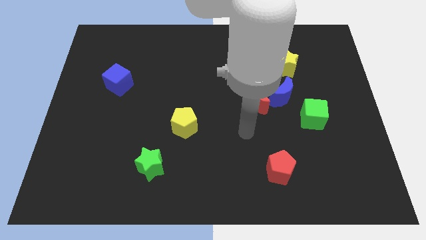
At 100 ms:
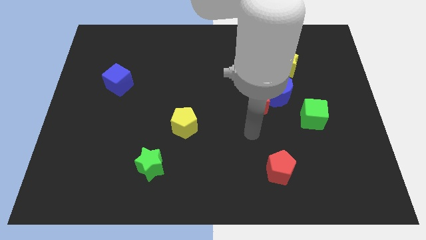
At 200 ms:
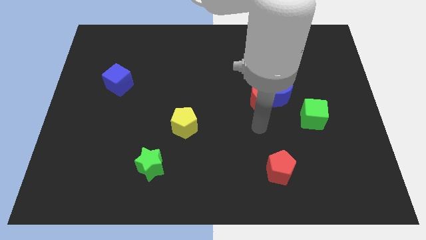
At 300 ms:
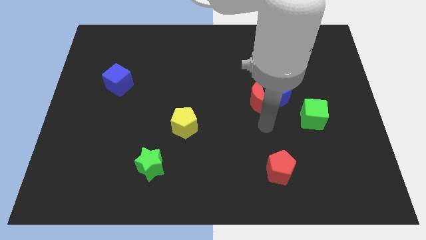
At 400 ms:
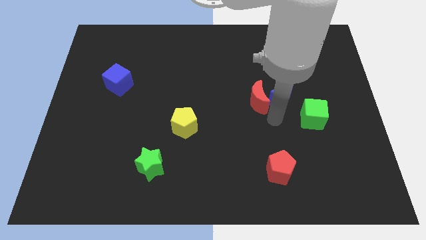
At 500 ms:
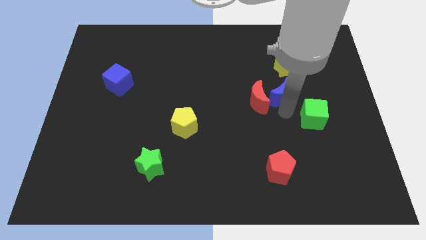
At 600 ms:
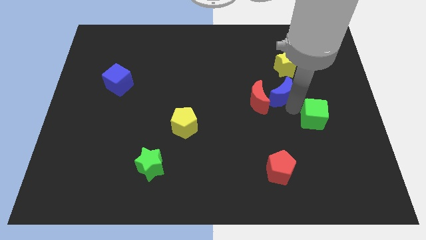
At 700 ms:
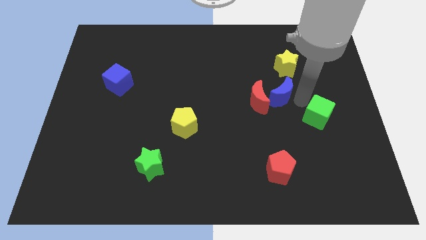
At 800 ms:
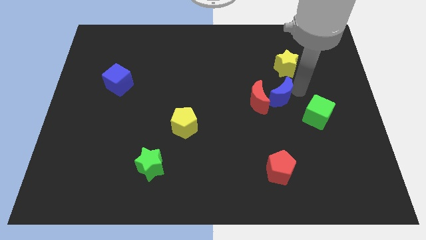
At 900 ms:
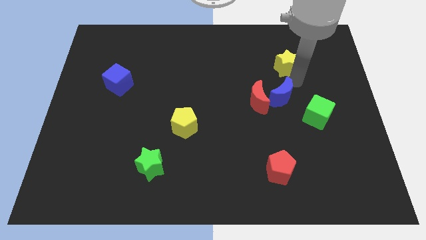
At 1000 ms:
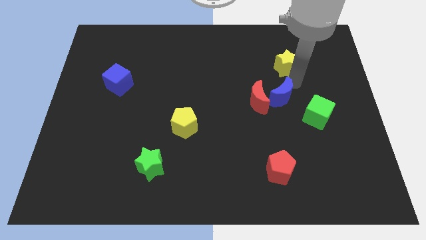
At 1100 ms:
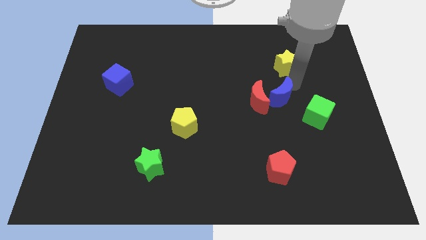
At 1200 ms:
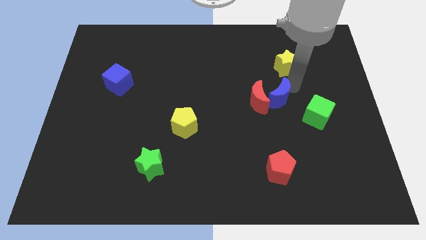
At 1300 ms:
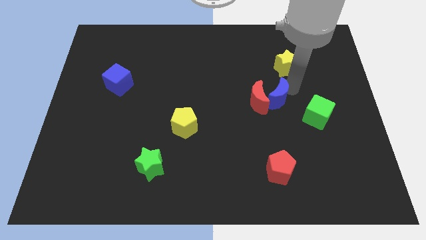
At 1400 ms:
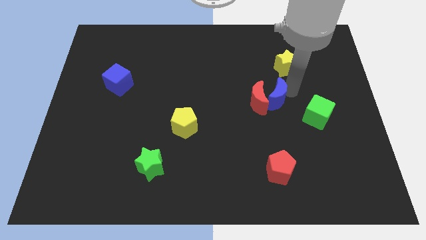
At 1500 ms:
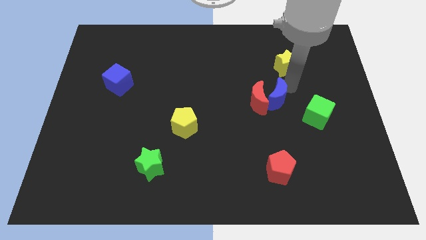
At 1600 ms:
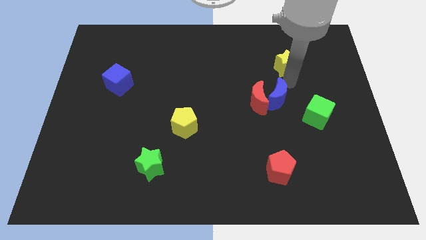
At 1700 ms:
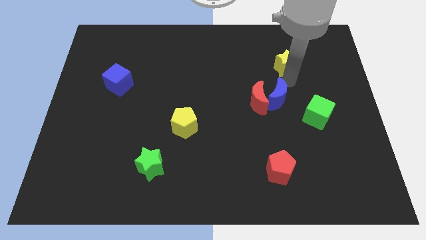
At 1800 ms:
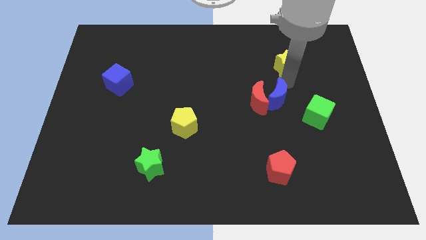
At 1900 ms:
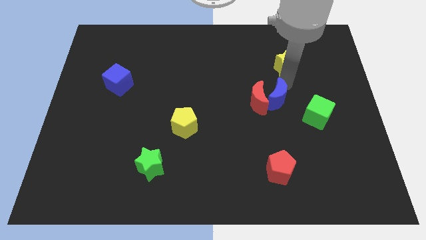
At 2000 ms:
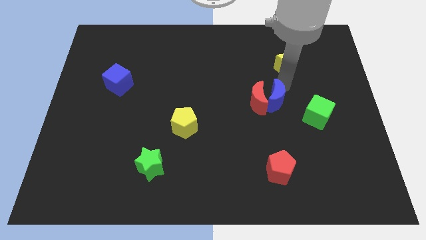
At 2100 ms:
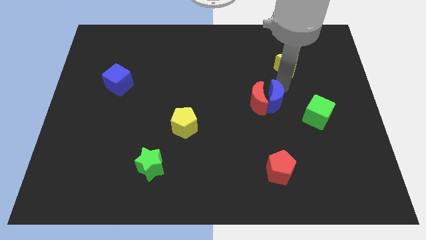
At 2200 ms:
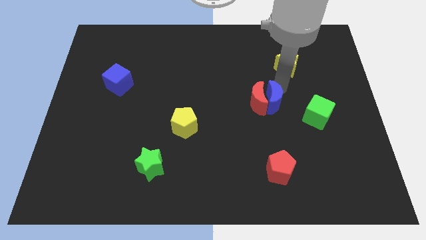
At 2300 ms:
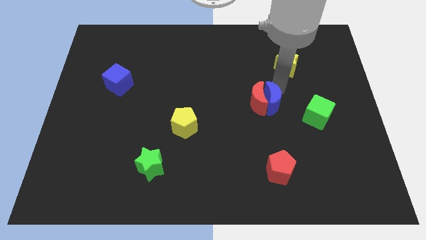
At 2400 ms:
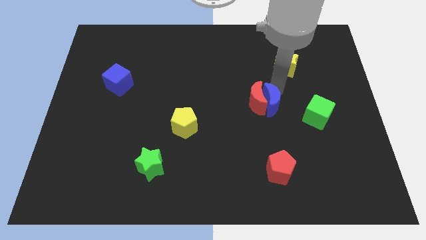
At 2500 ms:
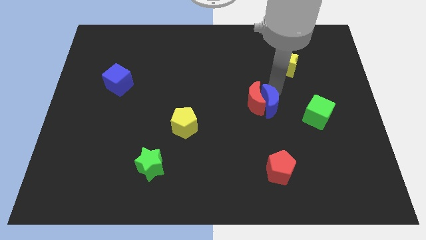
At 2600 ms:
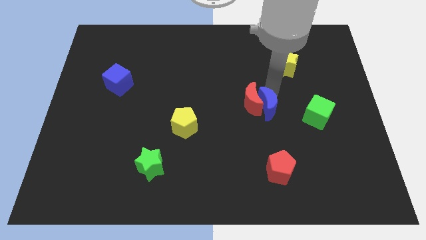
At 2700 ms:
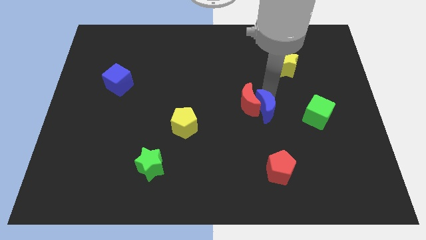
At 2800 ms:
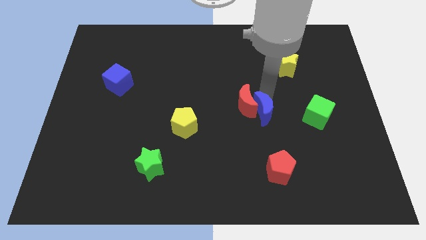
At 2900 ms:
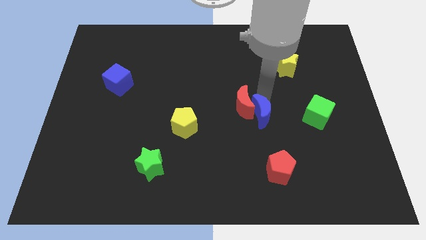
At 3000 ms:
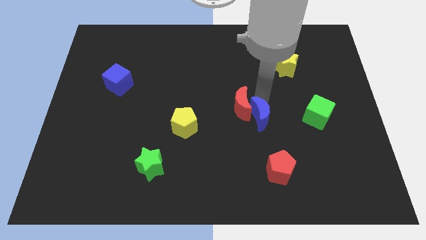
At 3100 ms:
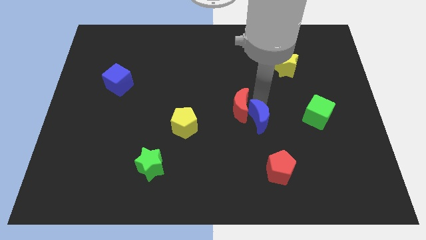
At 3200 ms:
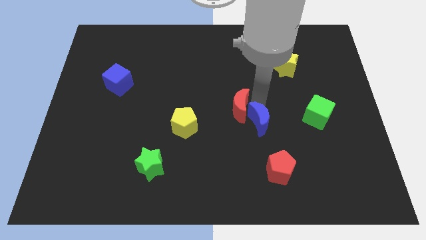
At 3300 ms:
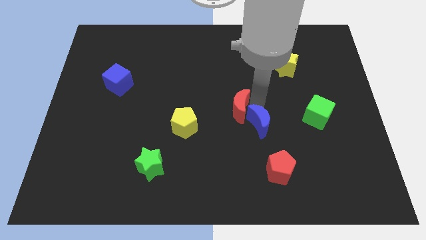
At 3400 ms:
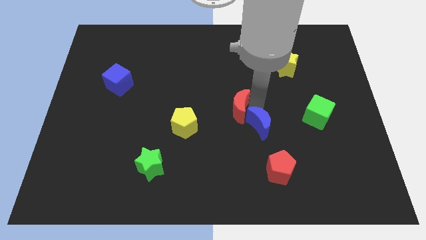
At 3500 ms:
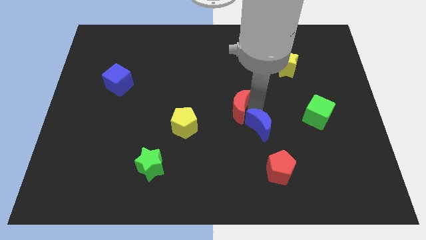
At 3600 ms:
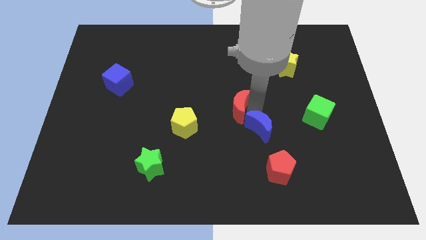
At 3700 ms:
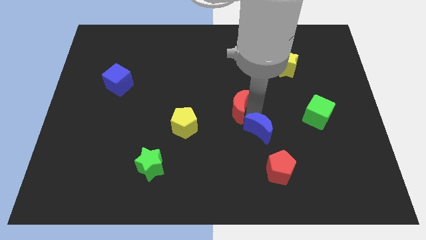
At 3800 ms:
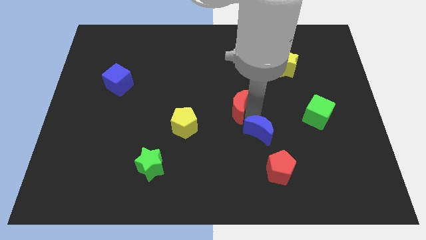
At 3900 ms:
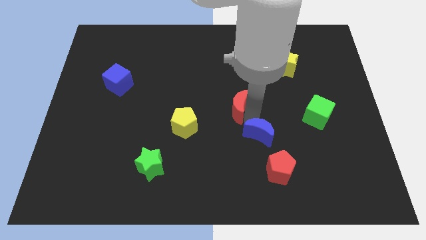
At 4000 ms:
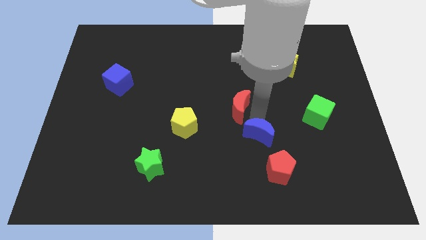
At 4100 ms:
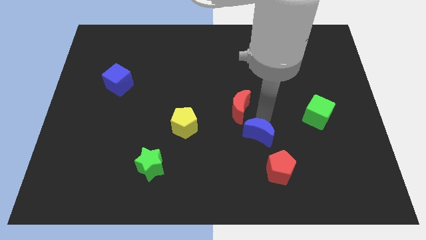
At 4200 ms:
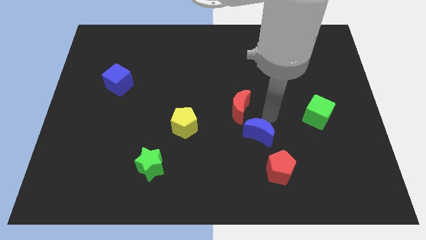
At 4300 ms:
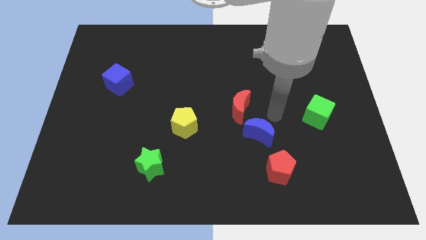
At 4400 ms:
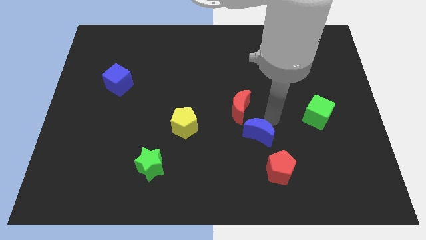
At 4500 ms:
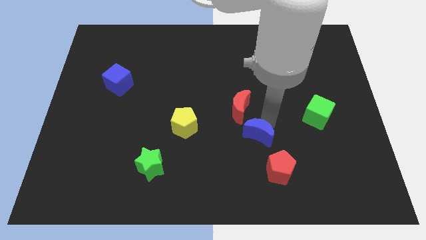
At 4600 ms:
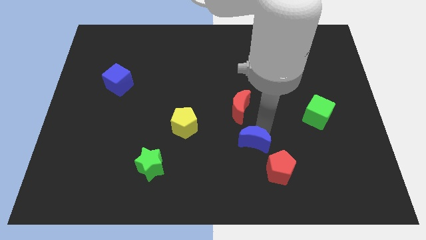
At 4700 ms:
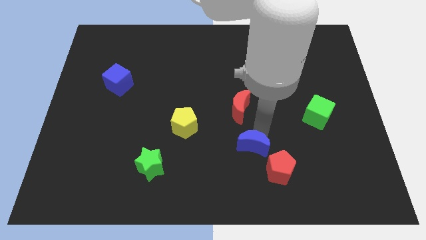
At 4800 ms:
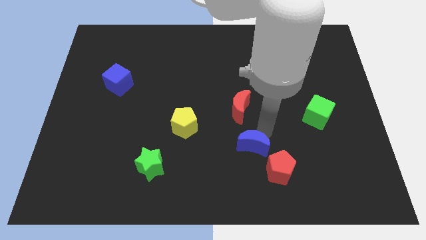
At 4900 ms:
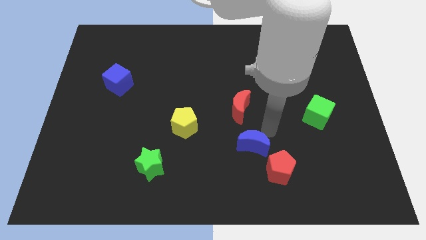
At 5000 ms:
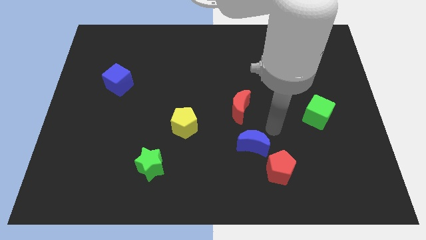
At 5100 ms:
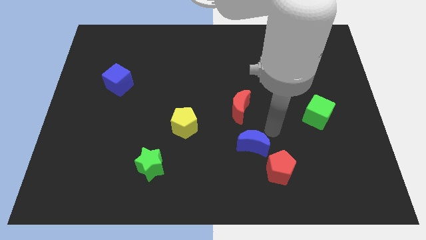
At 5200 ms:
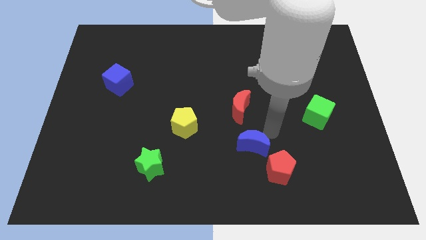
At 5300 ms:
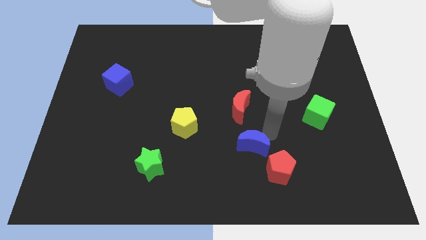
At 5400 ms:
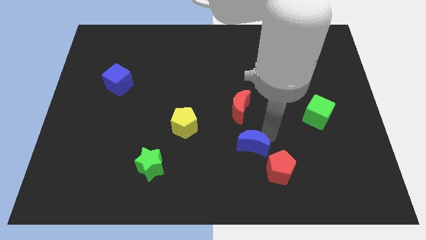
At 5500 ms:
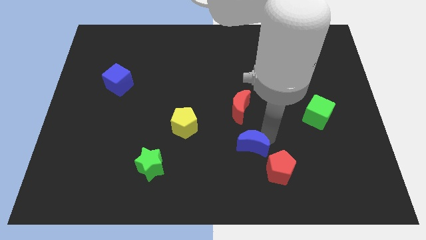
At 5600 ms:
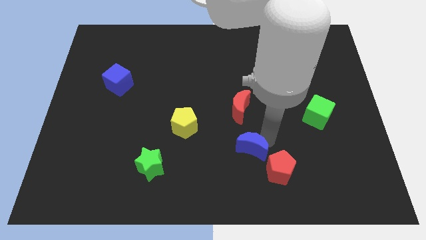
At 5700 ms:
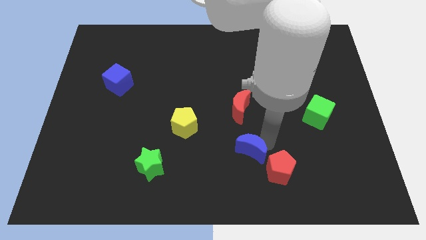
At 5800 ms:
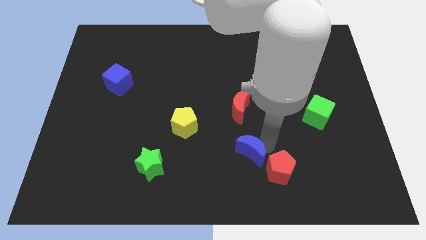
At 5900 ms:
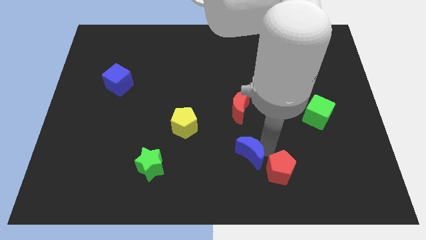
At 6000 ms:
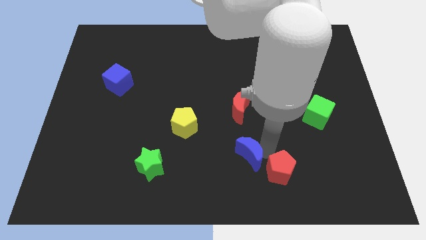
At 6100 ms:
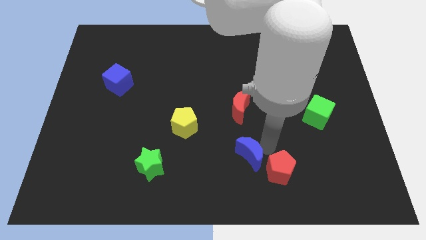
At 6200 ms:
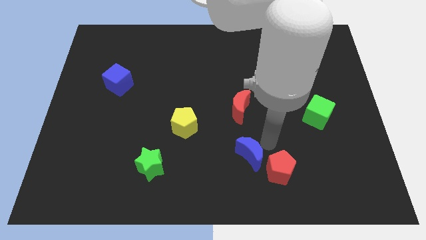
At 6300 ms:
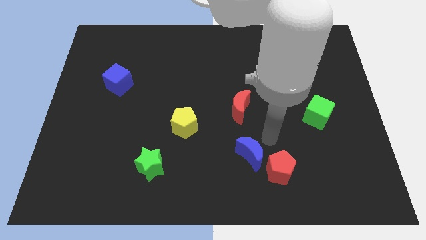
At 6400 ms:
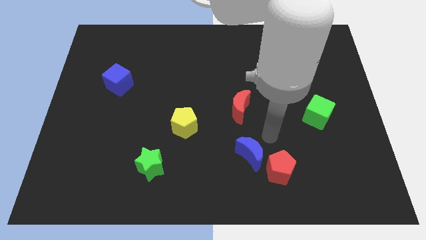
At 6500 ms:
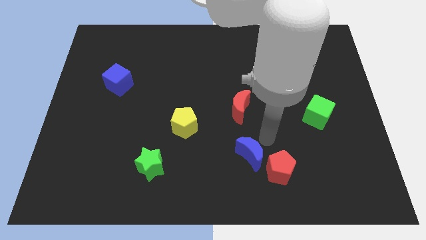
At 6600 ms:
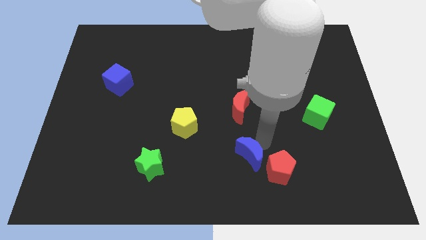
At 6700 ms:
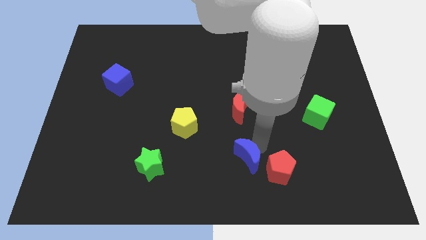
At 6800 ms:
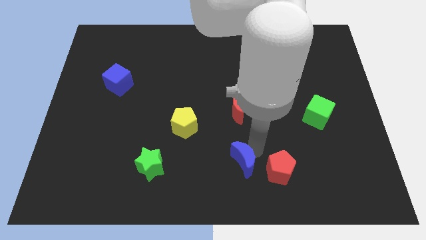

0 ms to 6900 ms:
move the blue moon to the bottom
